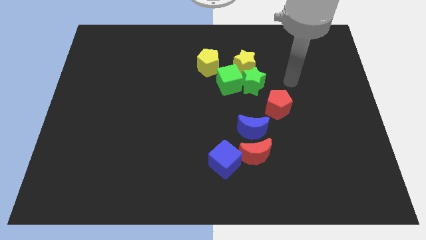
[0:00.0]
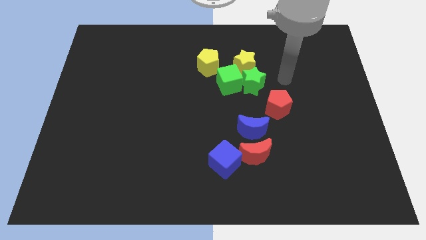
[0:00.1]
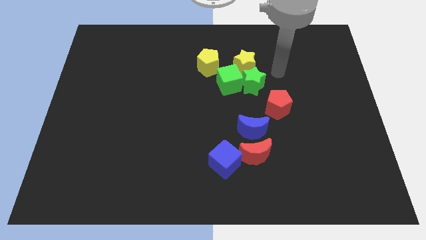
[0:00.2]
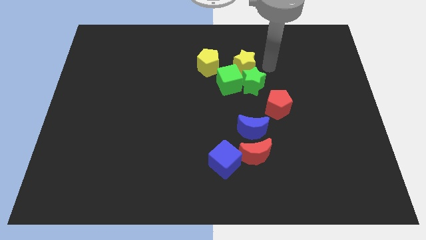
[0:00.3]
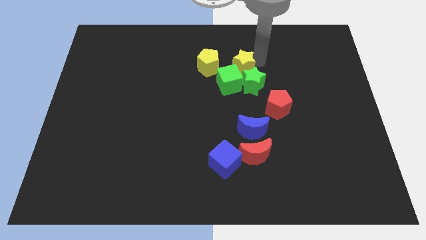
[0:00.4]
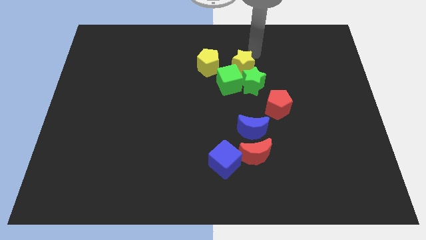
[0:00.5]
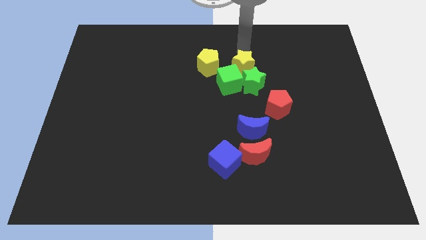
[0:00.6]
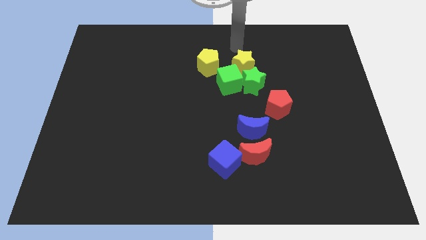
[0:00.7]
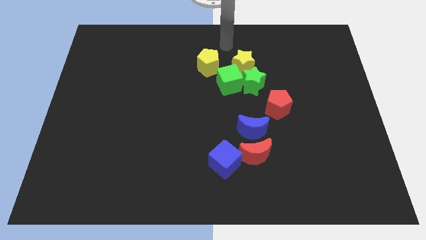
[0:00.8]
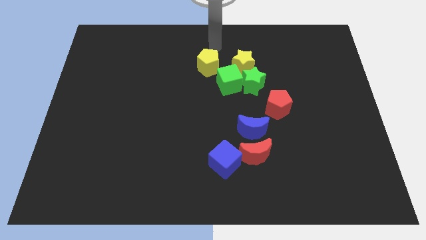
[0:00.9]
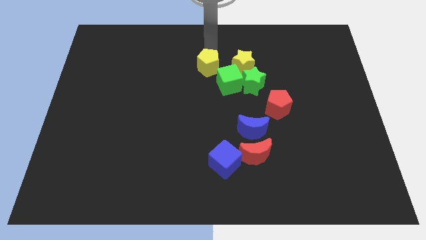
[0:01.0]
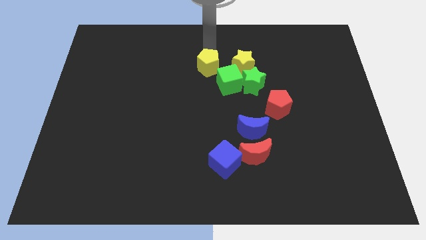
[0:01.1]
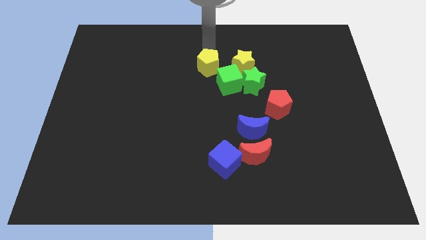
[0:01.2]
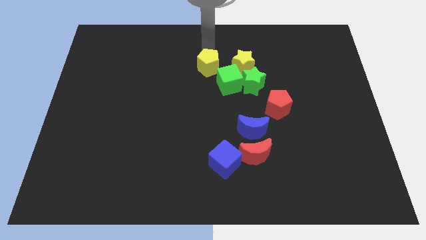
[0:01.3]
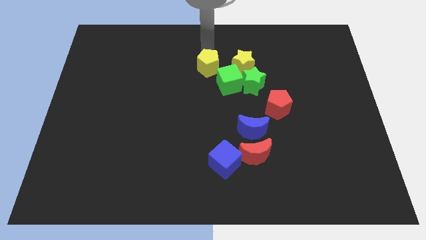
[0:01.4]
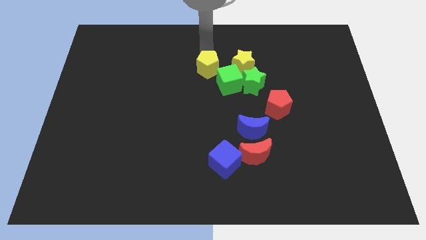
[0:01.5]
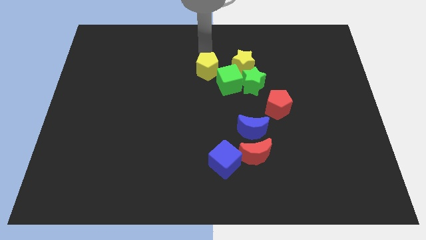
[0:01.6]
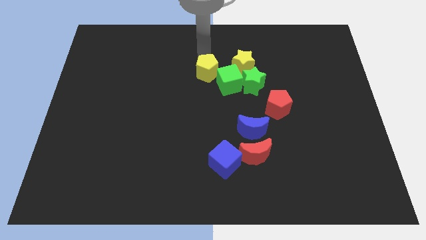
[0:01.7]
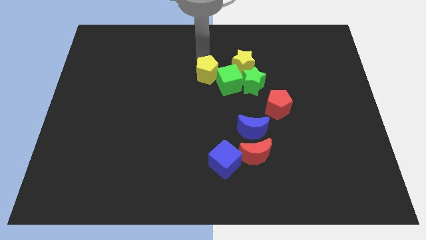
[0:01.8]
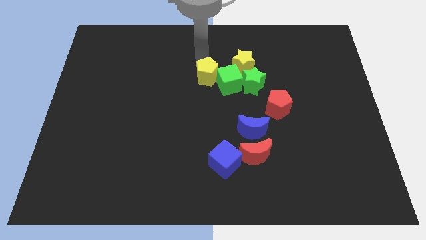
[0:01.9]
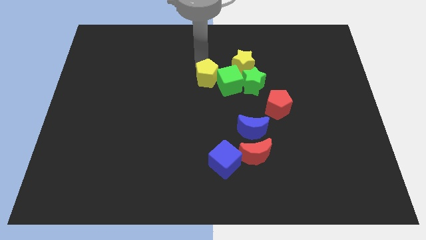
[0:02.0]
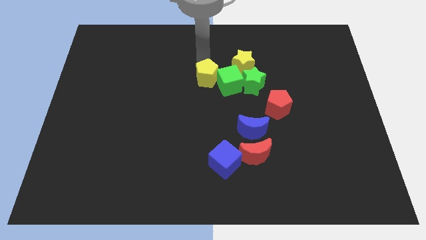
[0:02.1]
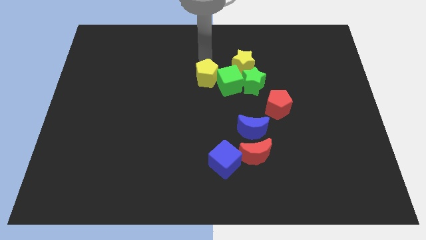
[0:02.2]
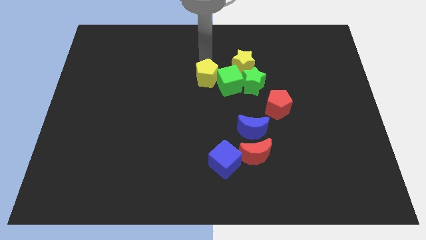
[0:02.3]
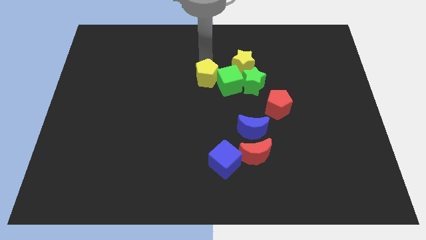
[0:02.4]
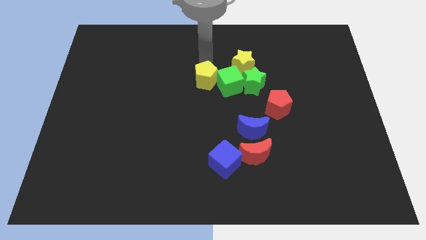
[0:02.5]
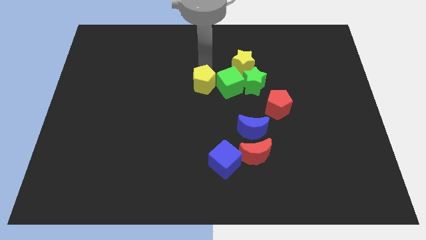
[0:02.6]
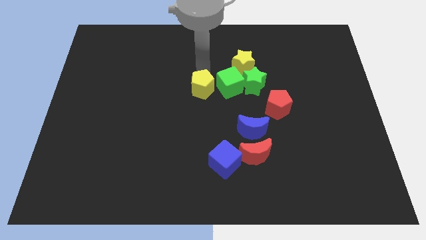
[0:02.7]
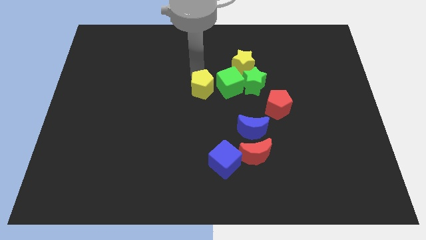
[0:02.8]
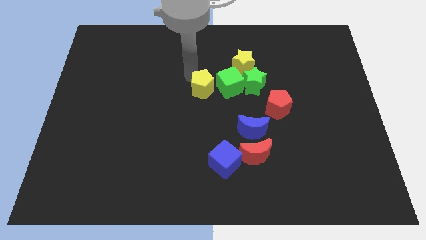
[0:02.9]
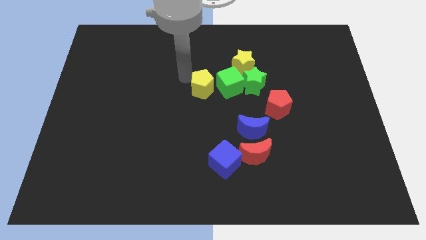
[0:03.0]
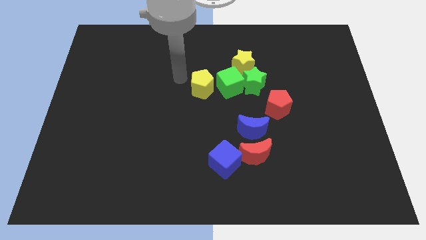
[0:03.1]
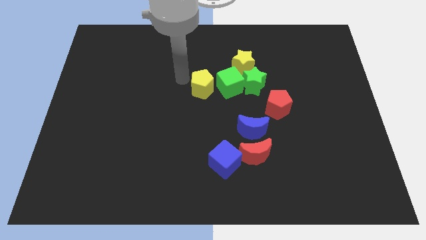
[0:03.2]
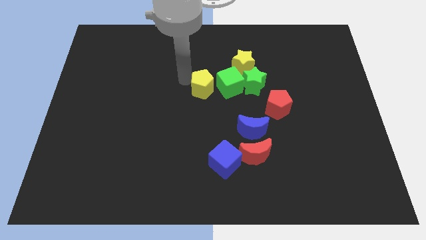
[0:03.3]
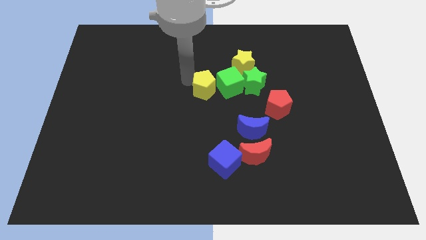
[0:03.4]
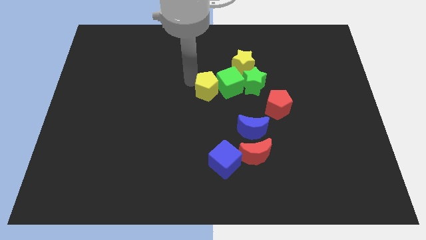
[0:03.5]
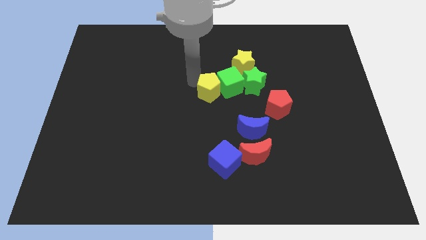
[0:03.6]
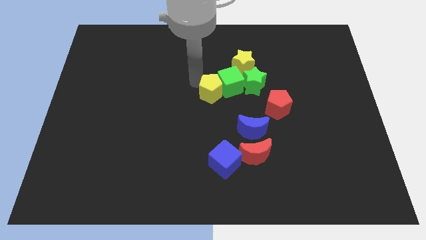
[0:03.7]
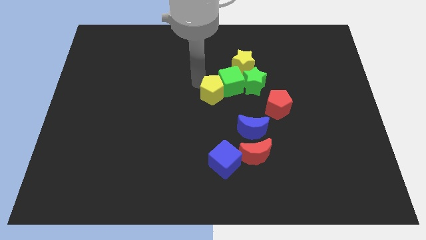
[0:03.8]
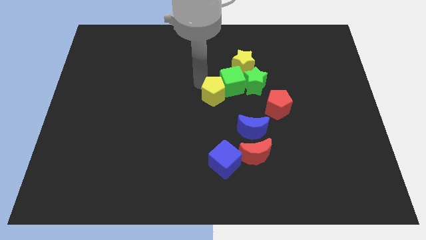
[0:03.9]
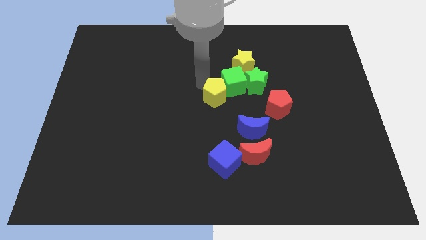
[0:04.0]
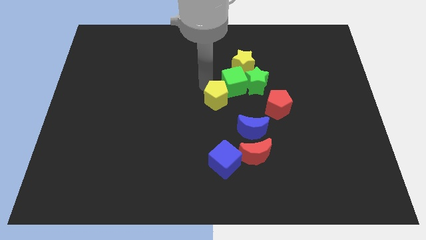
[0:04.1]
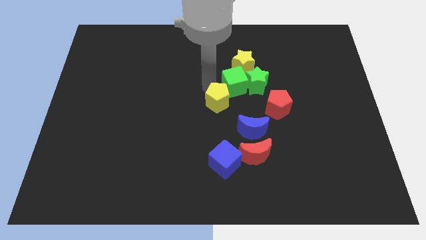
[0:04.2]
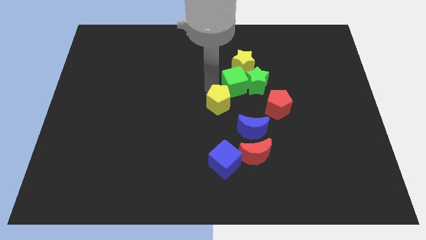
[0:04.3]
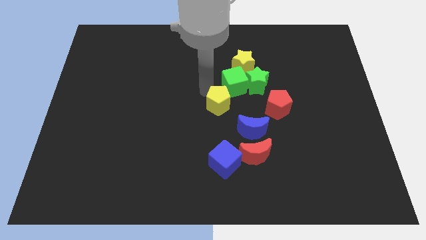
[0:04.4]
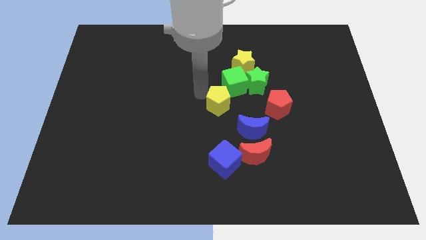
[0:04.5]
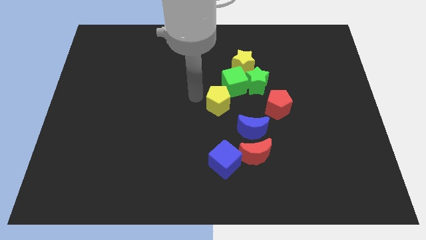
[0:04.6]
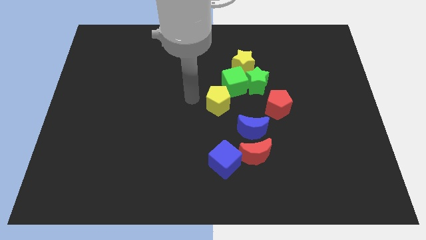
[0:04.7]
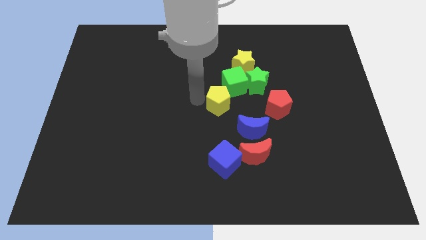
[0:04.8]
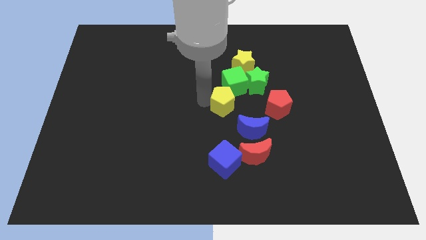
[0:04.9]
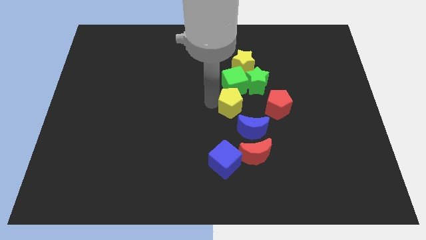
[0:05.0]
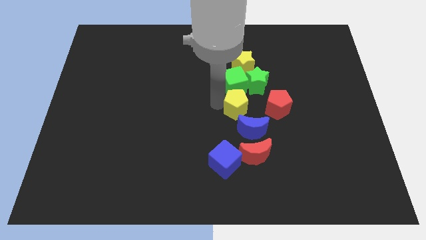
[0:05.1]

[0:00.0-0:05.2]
put the yellow pentagon to the top side of the red moon

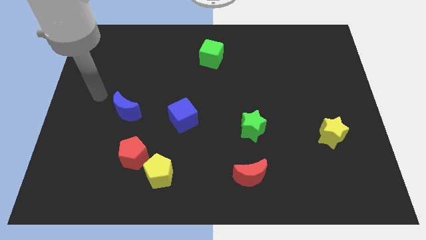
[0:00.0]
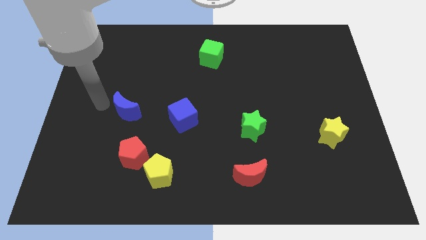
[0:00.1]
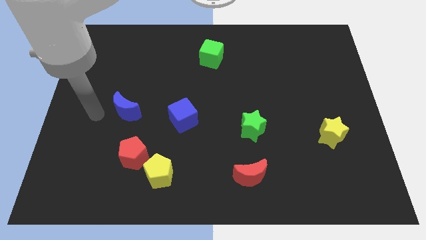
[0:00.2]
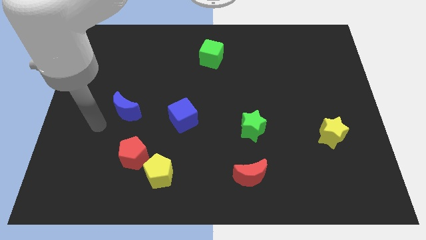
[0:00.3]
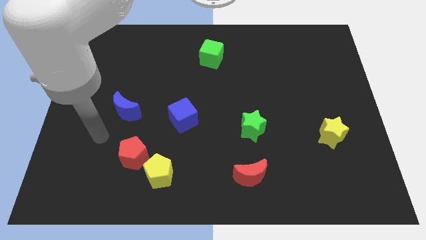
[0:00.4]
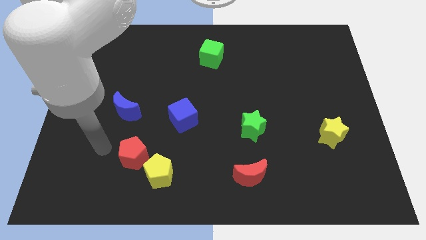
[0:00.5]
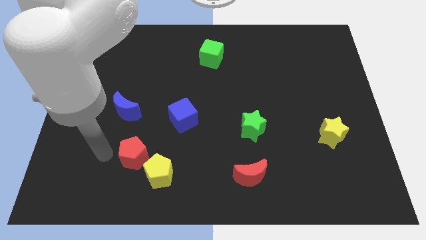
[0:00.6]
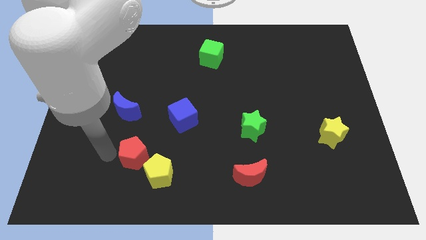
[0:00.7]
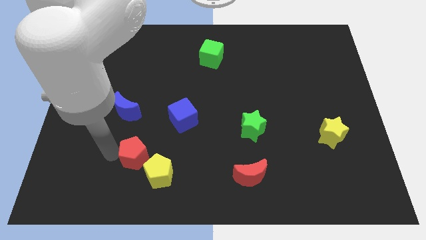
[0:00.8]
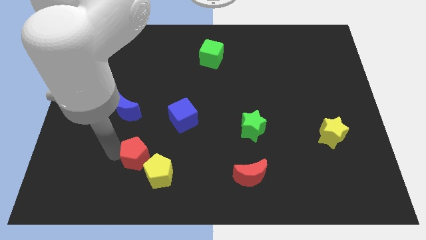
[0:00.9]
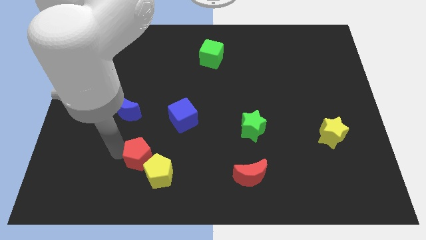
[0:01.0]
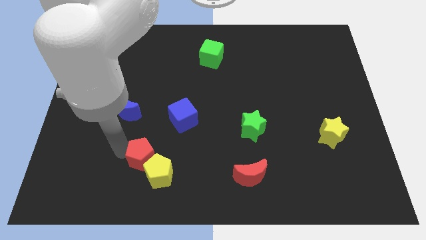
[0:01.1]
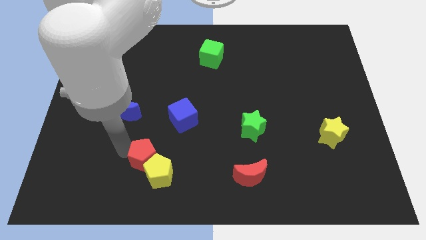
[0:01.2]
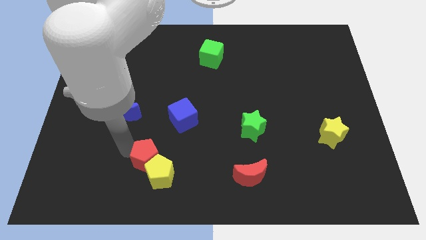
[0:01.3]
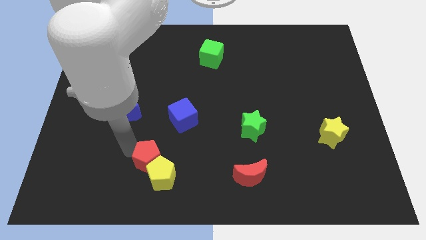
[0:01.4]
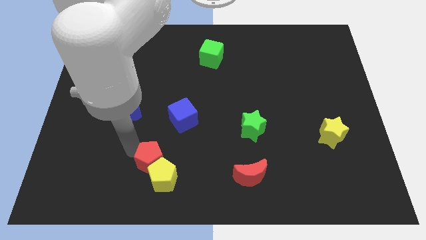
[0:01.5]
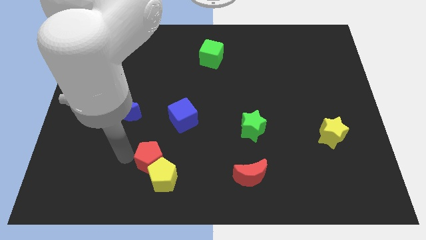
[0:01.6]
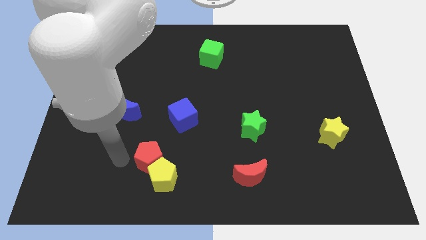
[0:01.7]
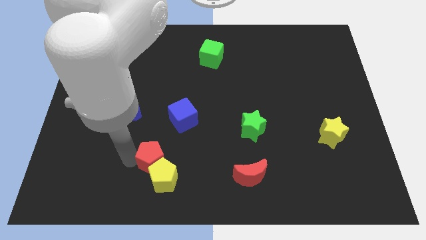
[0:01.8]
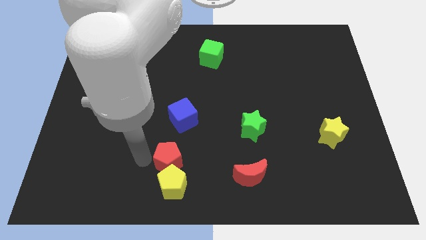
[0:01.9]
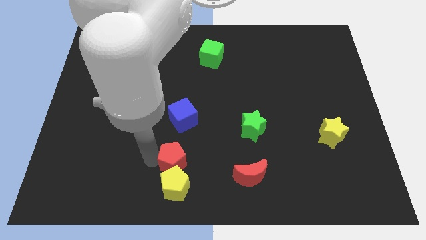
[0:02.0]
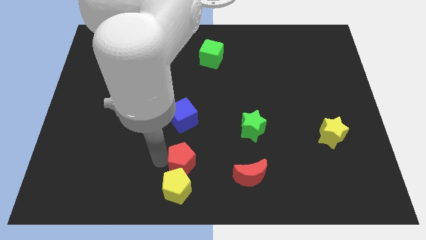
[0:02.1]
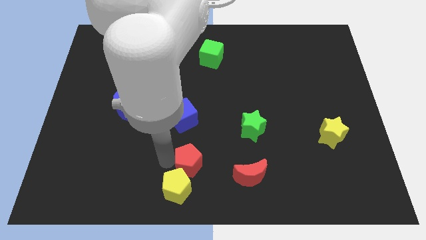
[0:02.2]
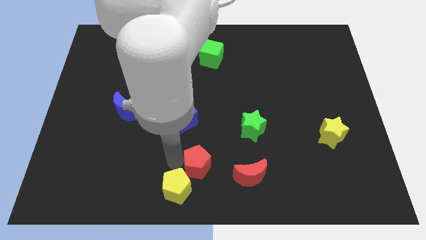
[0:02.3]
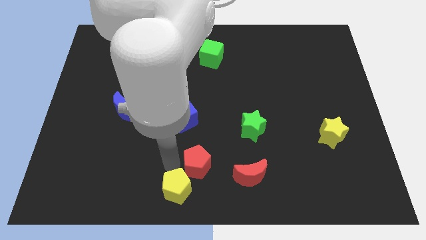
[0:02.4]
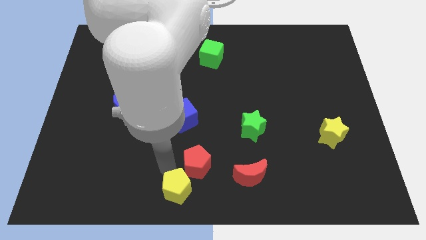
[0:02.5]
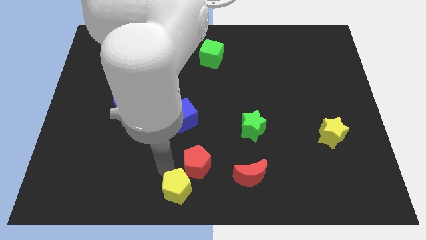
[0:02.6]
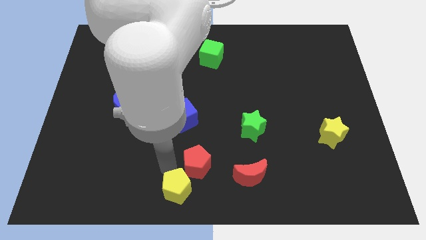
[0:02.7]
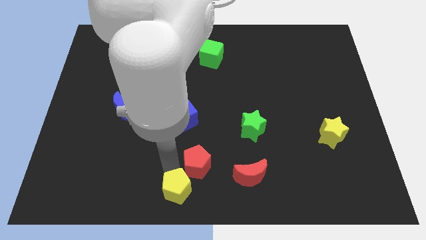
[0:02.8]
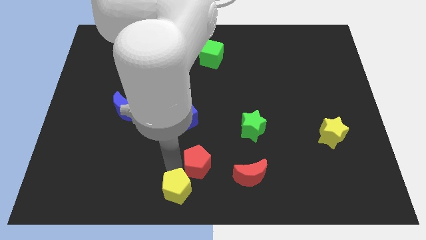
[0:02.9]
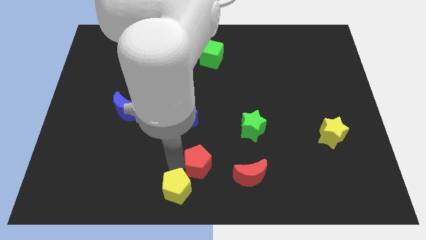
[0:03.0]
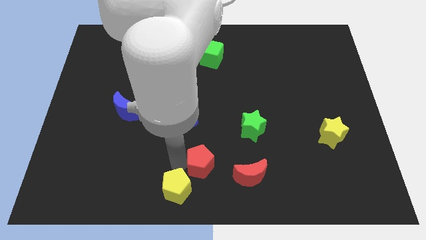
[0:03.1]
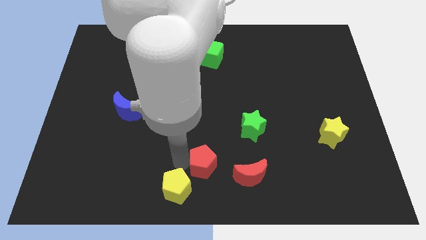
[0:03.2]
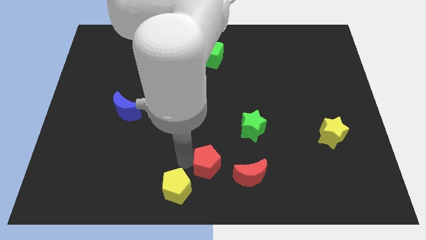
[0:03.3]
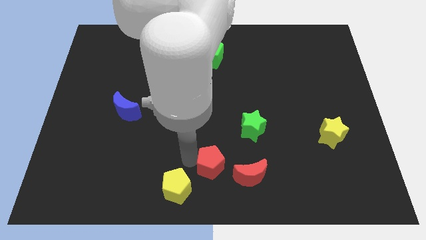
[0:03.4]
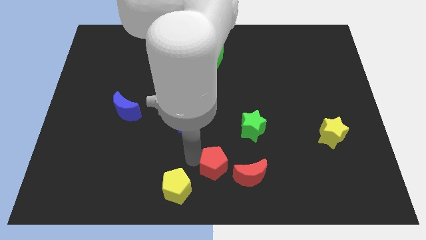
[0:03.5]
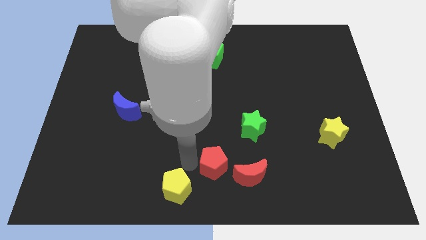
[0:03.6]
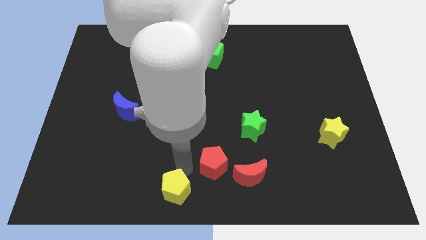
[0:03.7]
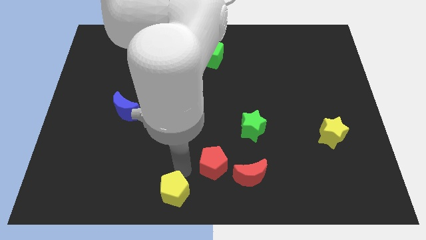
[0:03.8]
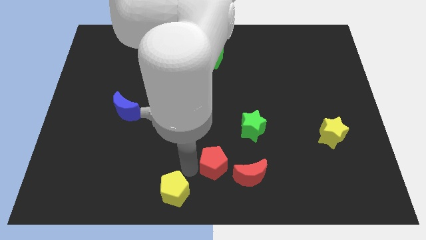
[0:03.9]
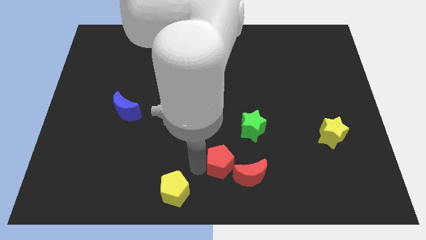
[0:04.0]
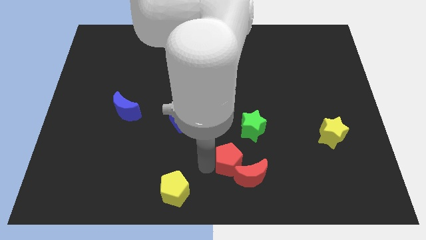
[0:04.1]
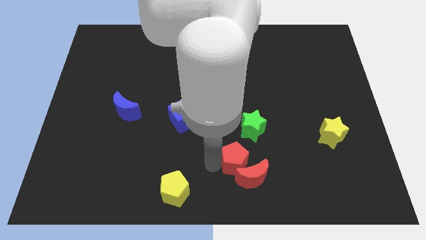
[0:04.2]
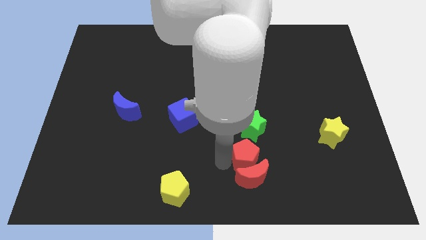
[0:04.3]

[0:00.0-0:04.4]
slide the red pentagon to the top right side of the red moon
